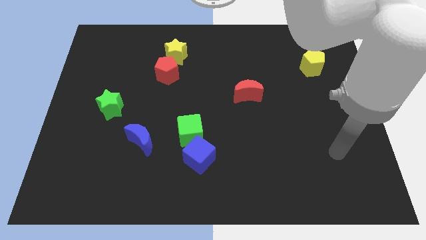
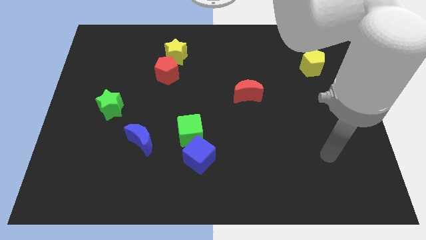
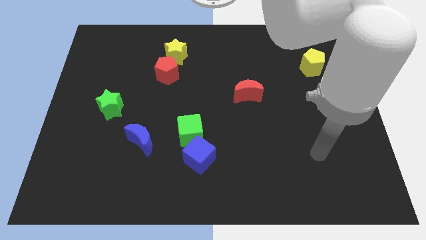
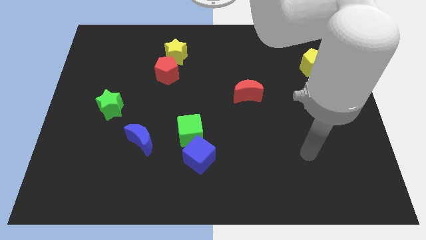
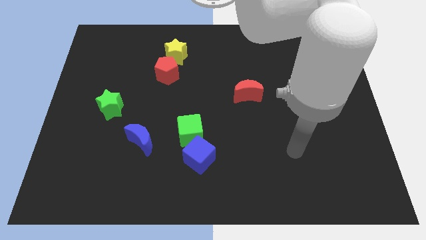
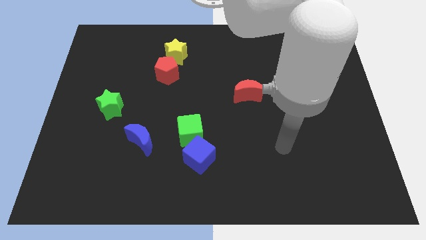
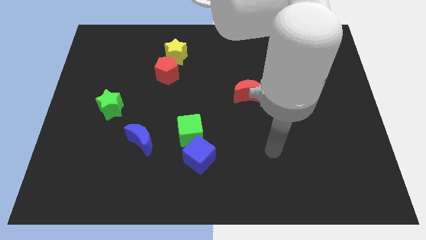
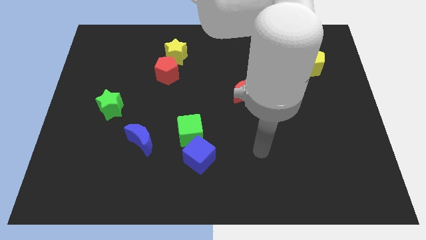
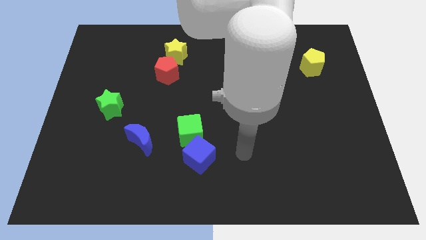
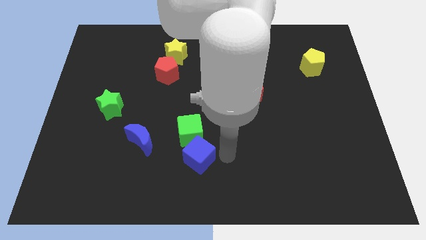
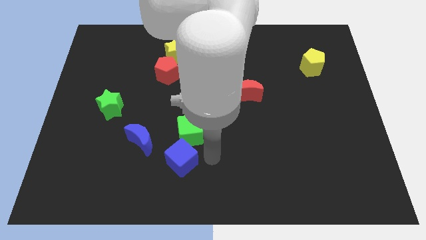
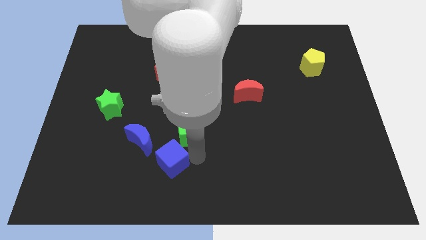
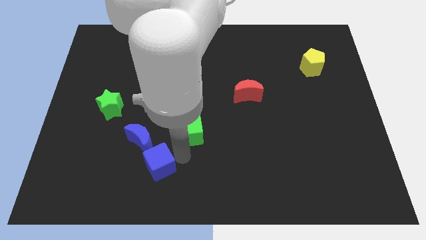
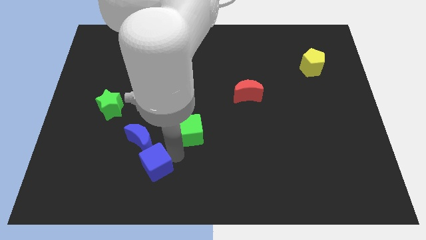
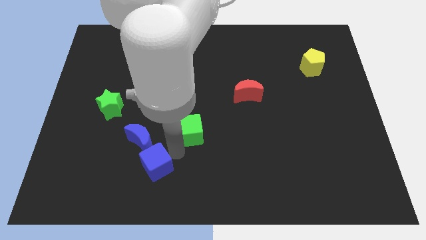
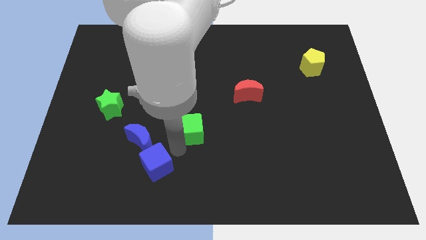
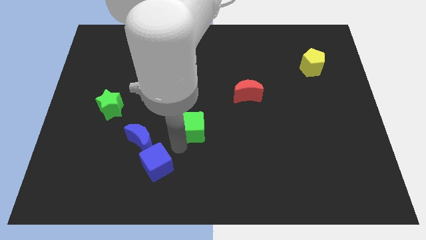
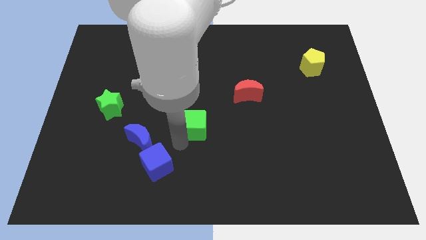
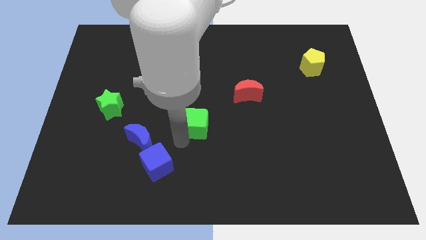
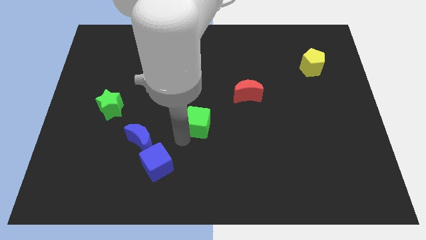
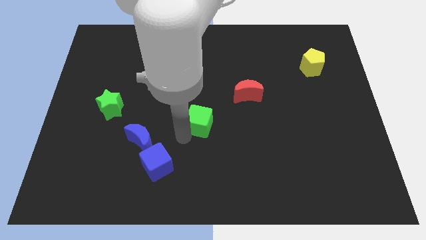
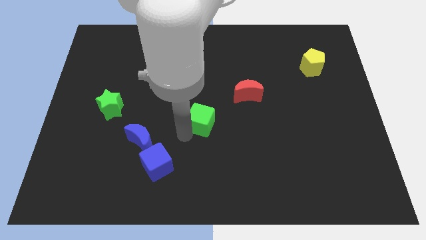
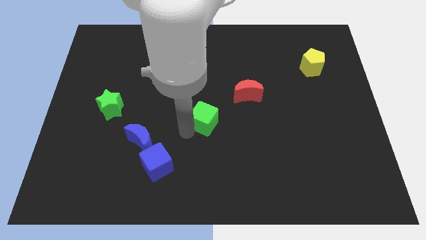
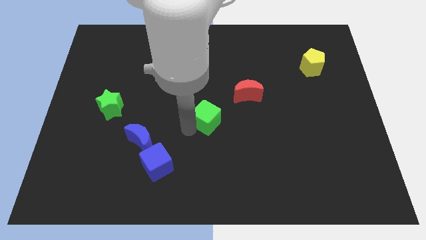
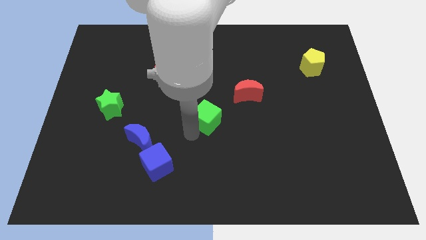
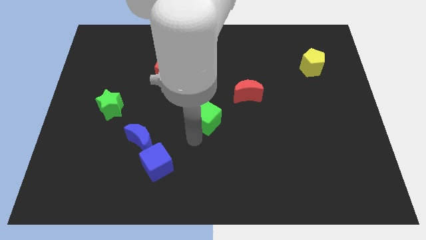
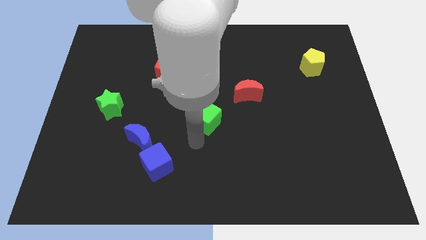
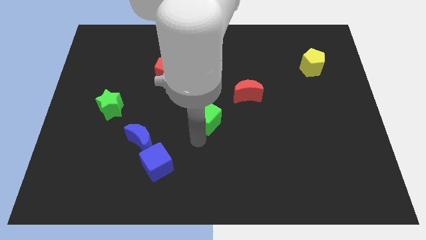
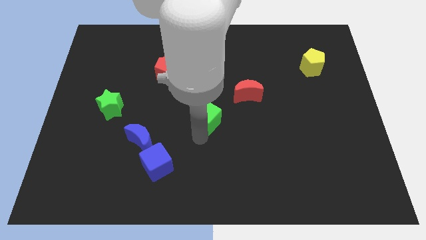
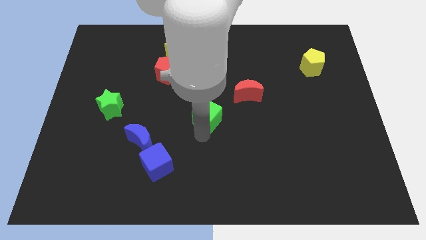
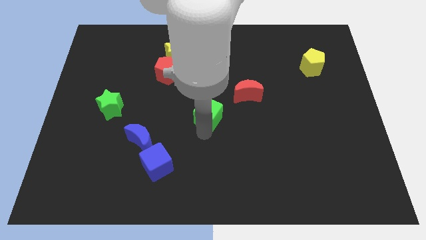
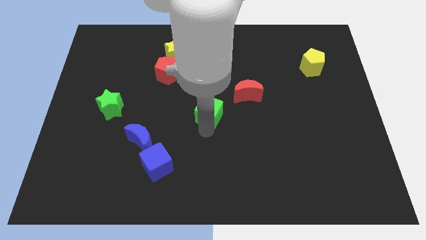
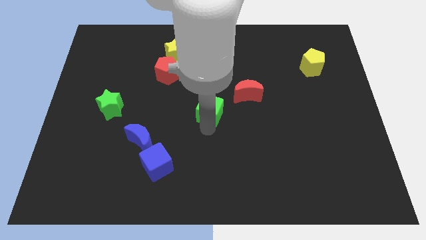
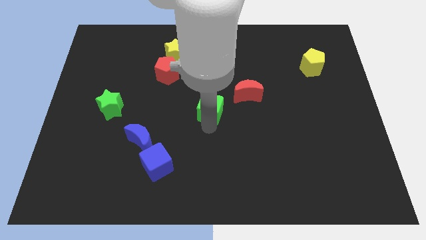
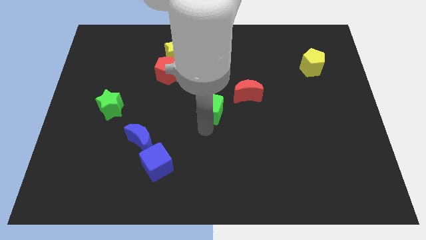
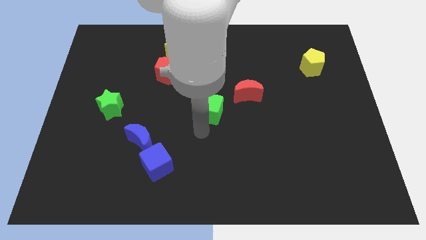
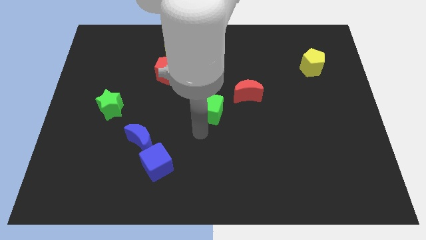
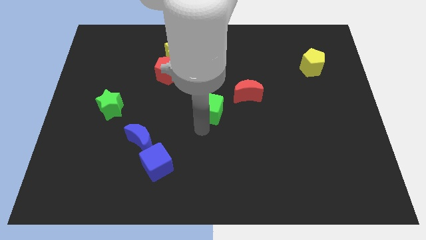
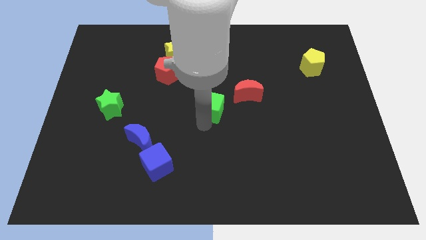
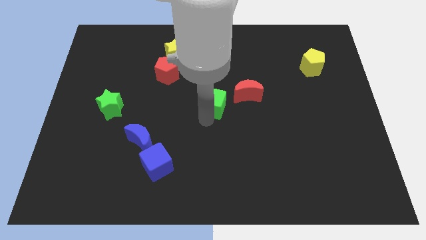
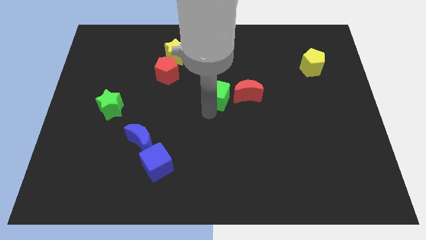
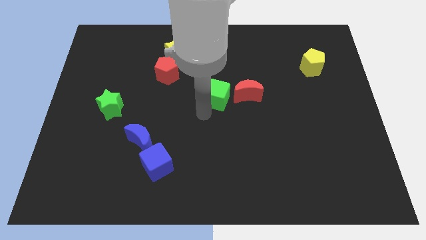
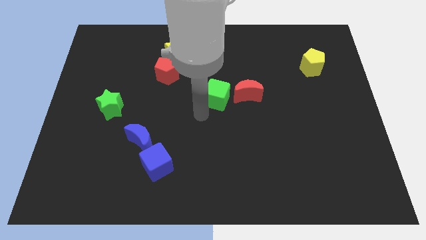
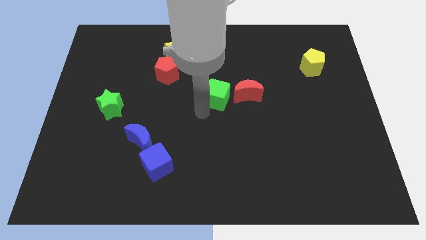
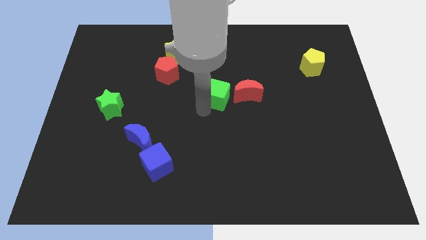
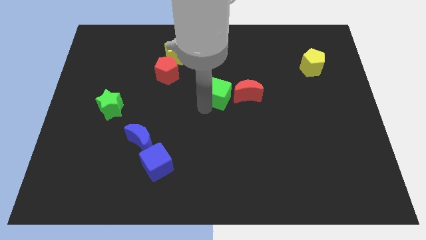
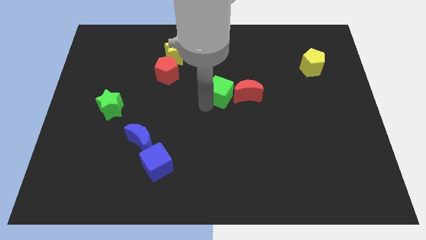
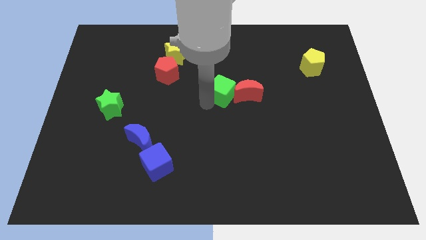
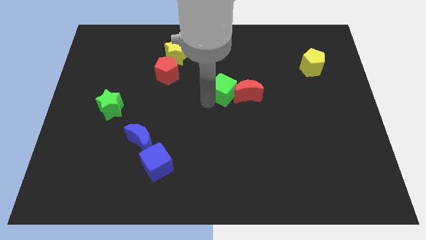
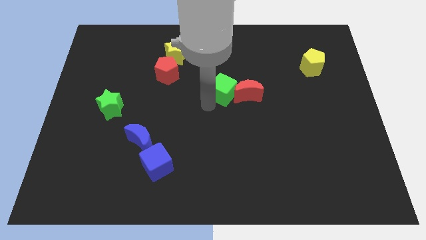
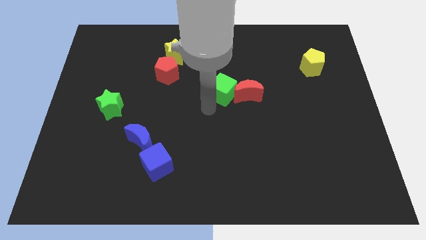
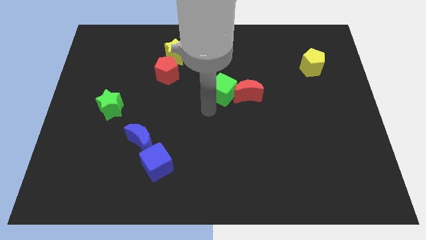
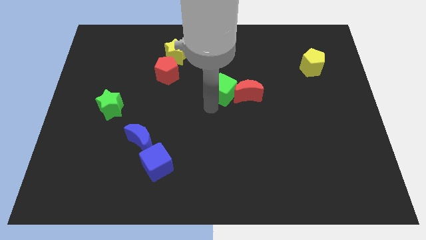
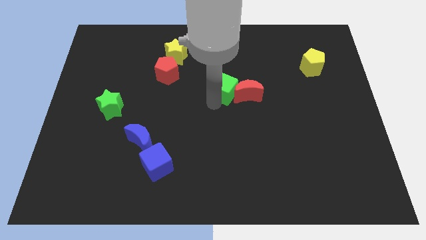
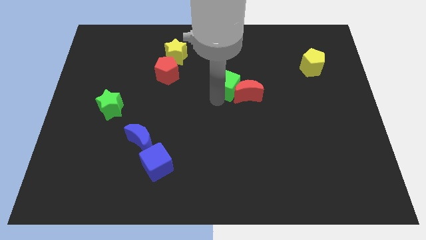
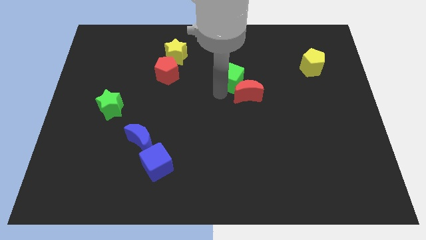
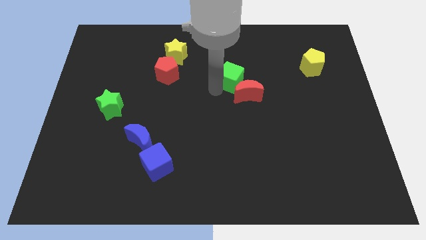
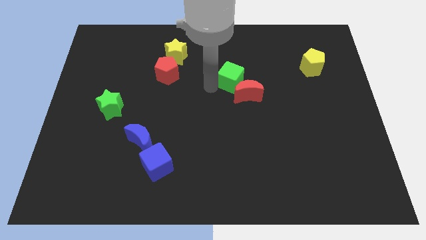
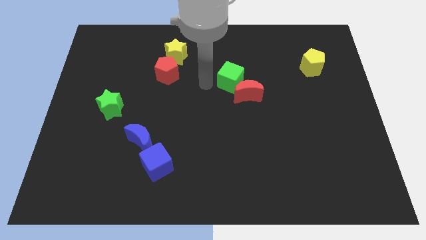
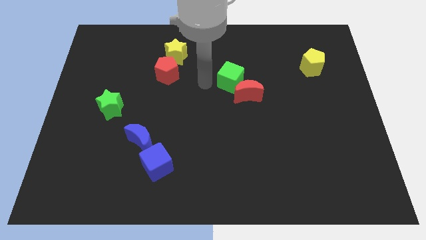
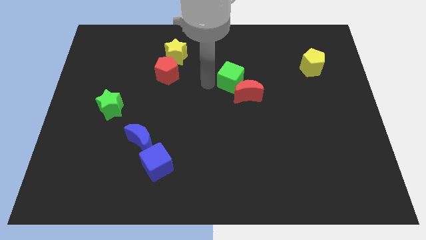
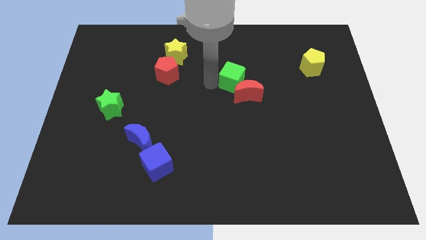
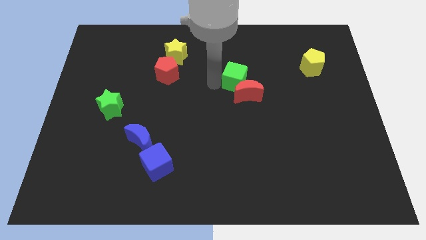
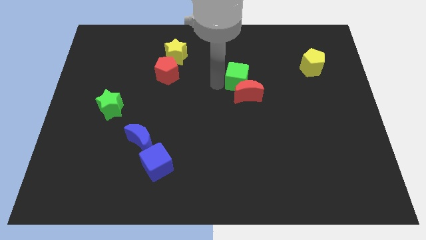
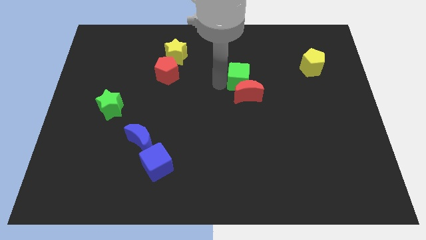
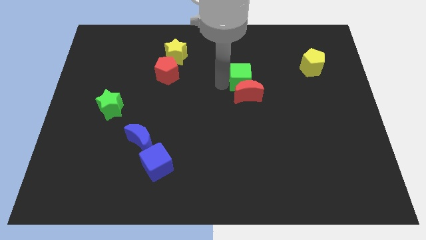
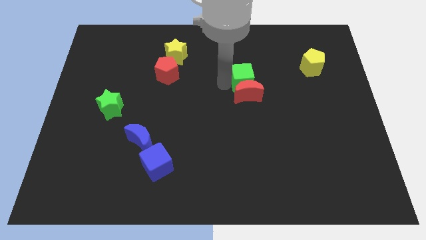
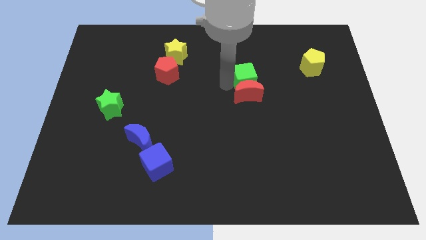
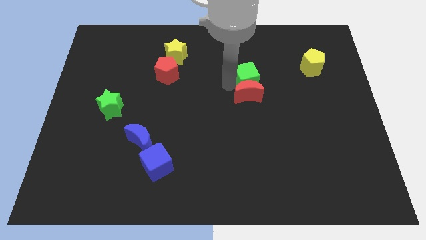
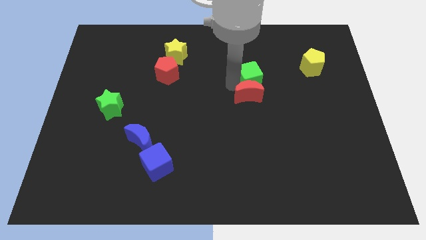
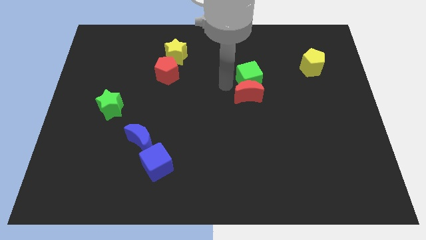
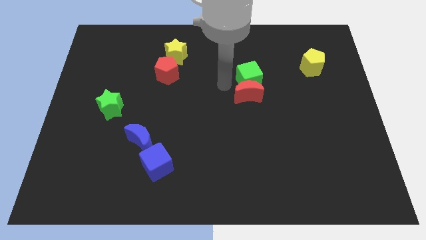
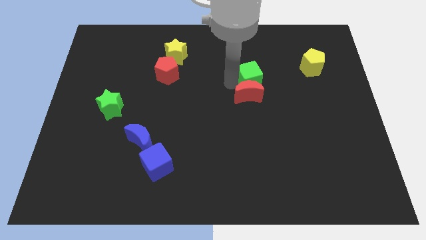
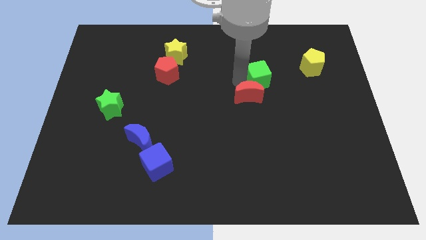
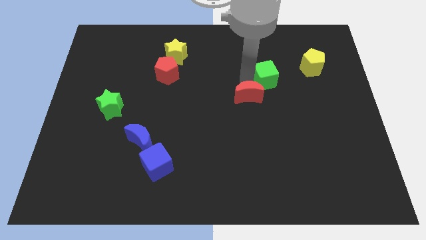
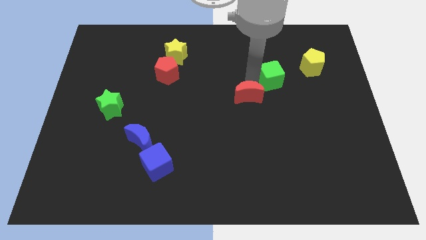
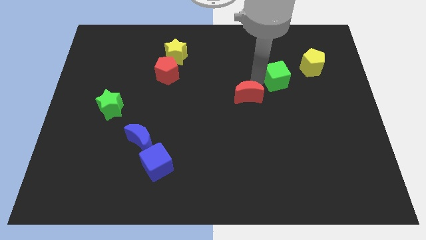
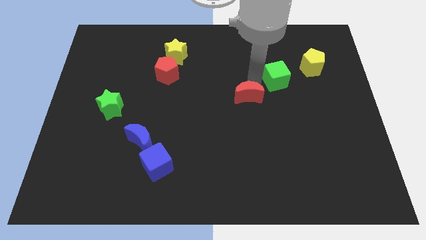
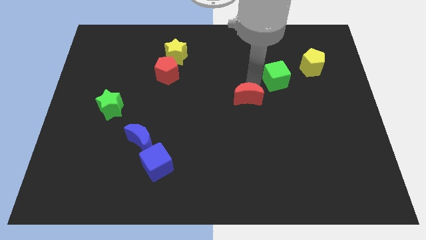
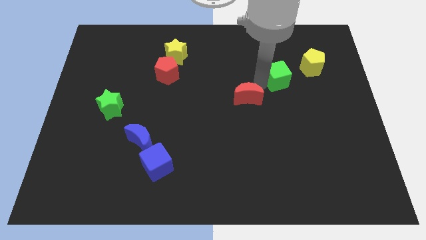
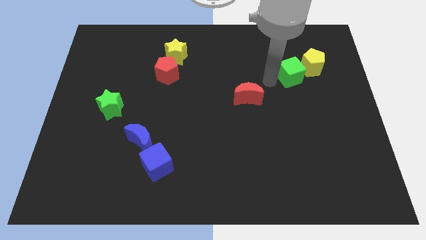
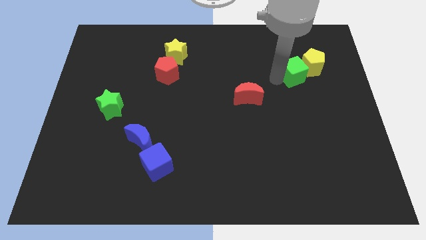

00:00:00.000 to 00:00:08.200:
slide the green cube next to the yellow pentagon
